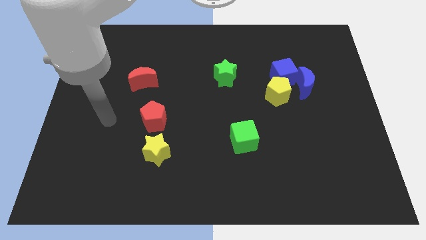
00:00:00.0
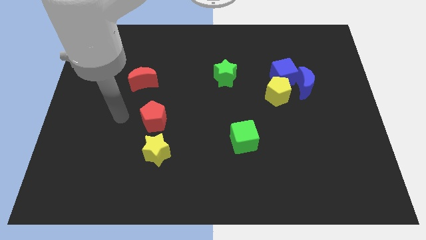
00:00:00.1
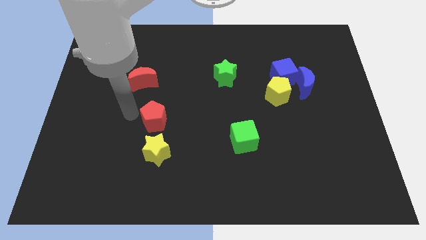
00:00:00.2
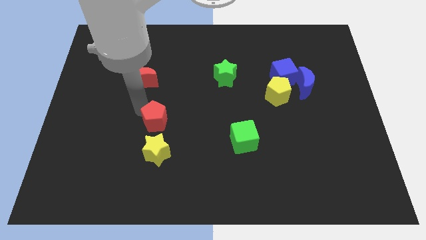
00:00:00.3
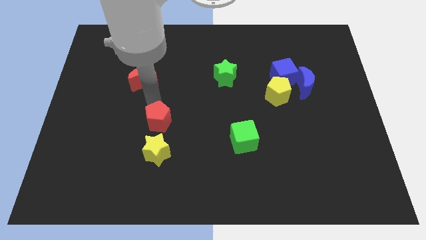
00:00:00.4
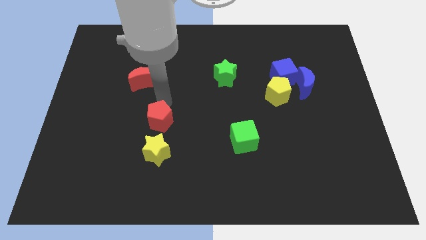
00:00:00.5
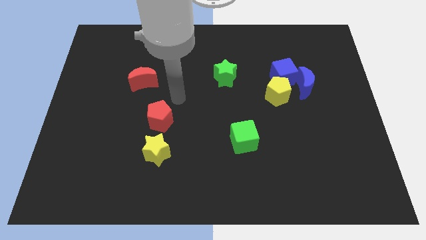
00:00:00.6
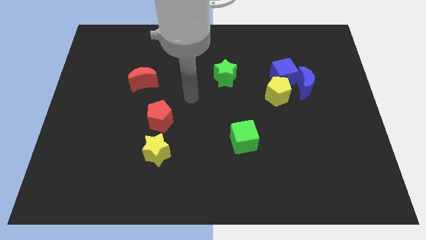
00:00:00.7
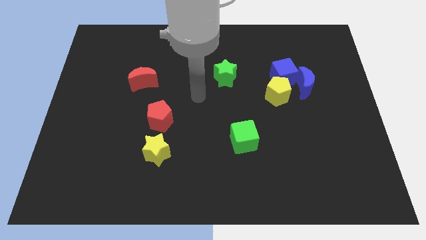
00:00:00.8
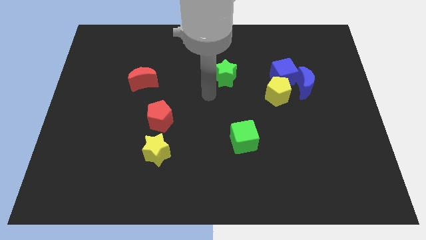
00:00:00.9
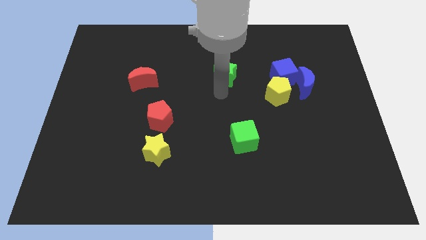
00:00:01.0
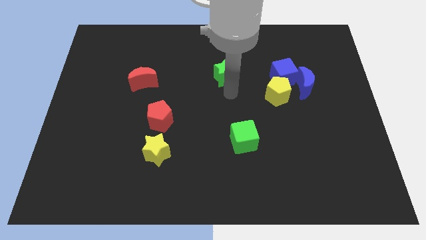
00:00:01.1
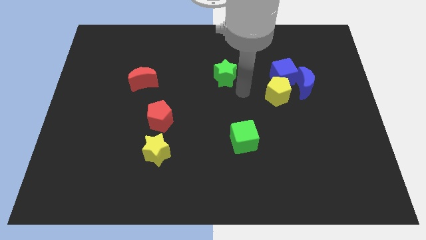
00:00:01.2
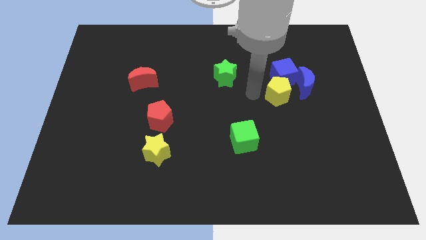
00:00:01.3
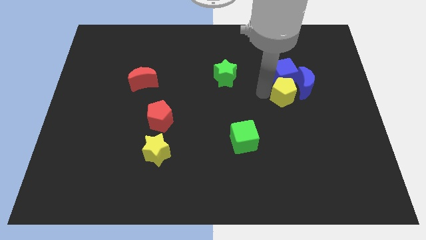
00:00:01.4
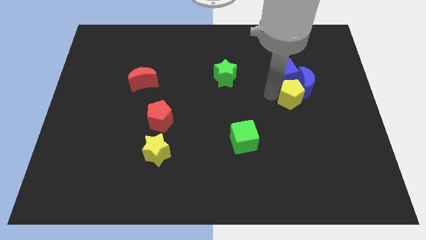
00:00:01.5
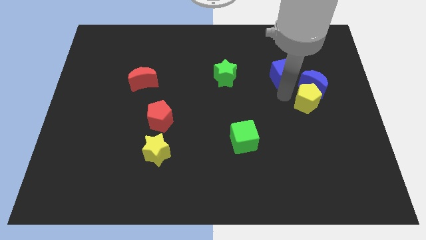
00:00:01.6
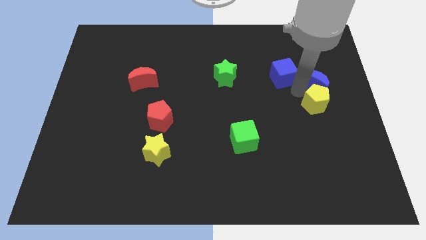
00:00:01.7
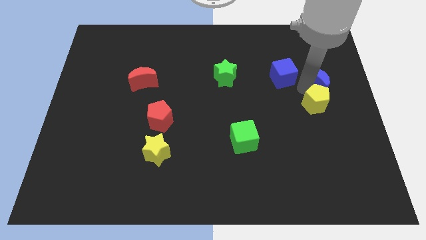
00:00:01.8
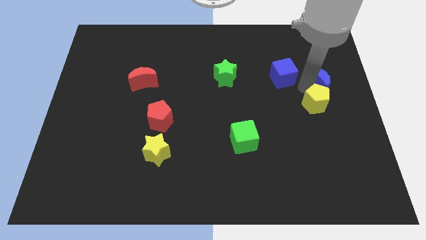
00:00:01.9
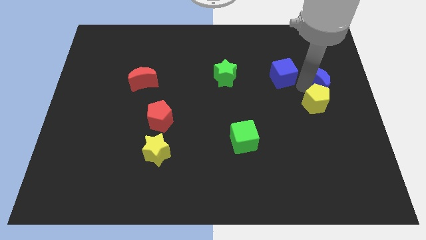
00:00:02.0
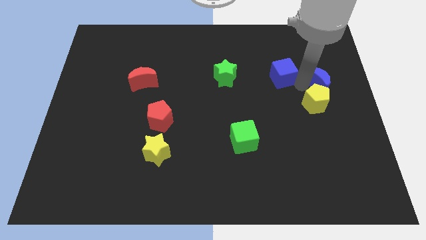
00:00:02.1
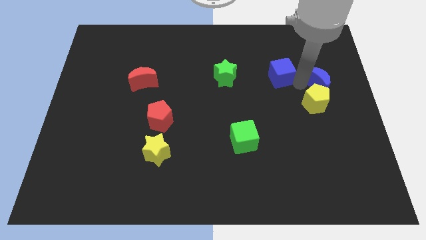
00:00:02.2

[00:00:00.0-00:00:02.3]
pull the blue cube apart from the blue moon and yellow pentagon

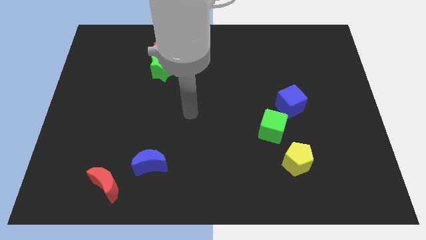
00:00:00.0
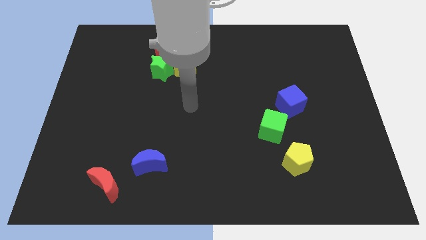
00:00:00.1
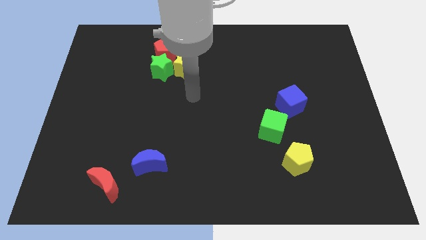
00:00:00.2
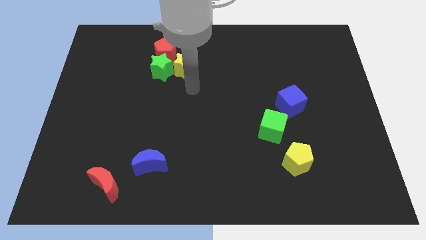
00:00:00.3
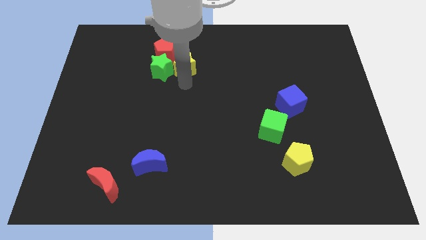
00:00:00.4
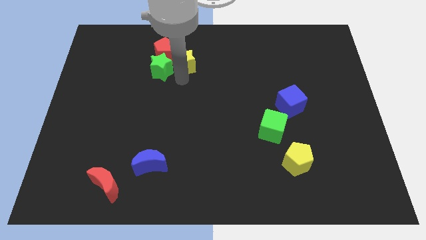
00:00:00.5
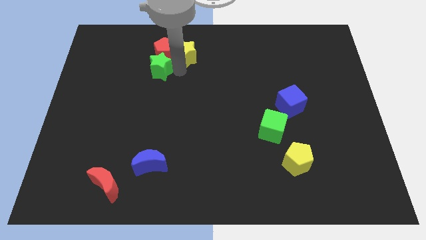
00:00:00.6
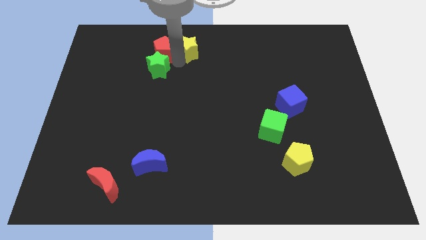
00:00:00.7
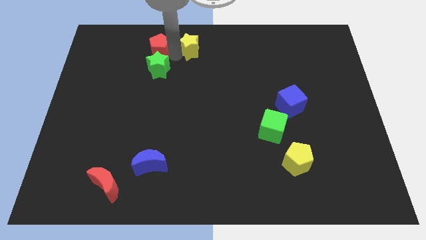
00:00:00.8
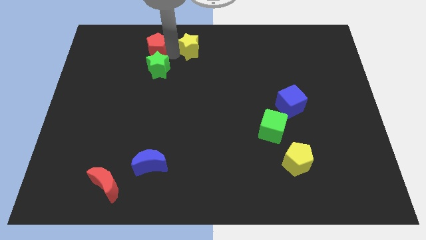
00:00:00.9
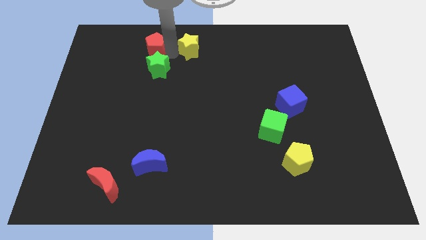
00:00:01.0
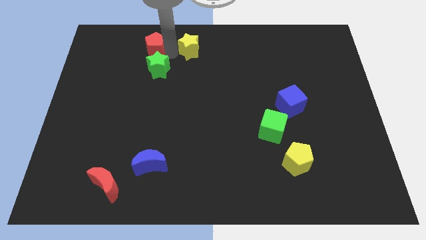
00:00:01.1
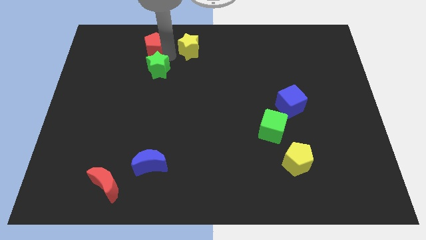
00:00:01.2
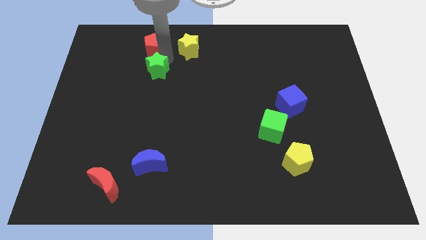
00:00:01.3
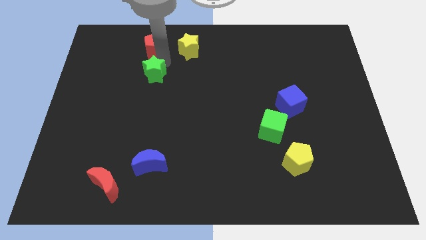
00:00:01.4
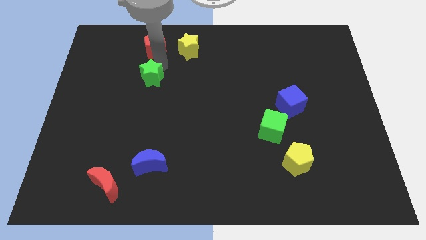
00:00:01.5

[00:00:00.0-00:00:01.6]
separate the green star from the red pentagon and yellow star

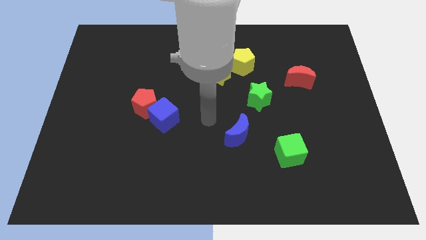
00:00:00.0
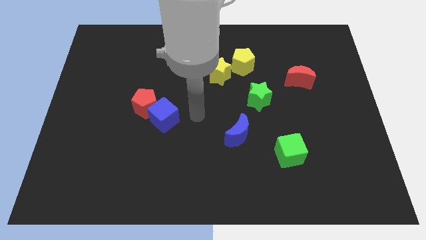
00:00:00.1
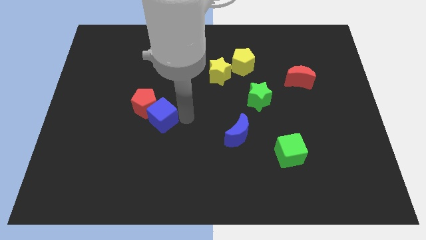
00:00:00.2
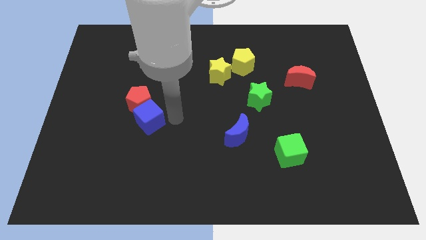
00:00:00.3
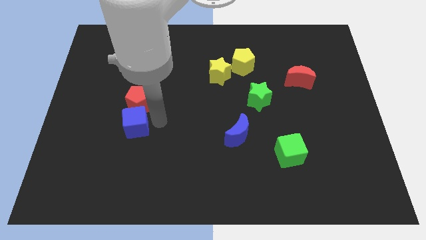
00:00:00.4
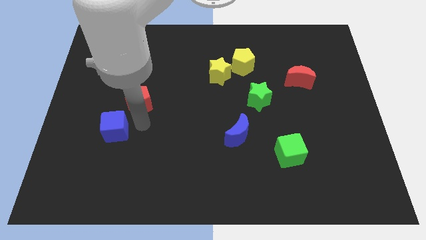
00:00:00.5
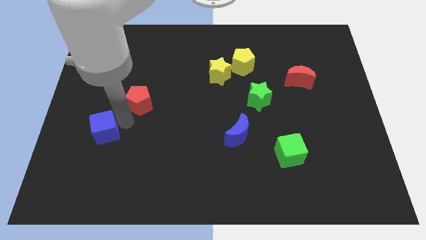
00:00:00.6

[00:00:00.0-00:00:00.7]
move the red pentagon away from the blue cube

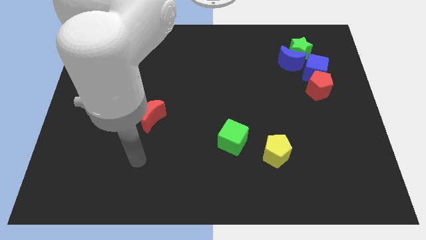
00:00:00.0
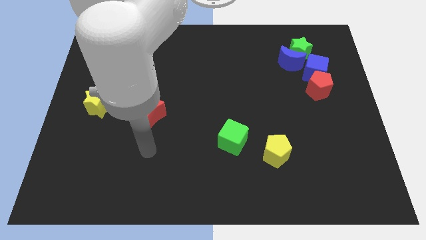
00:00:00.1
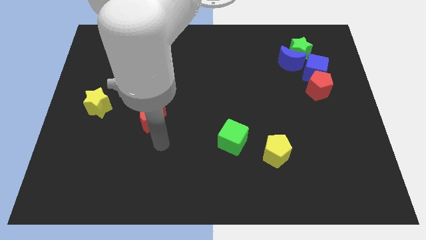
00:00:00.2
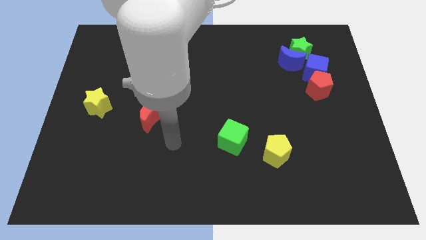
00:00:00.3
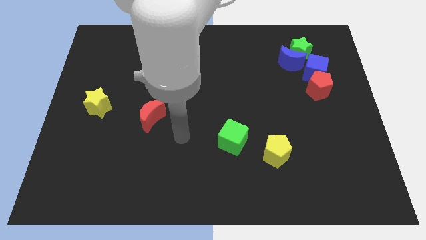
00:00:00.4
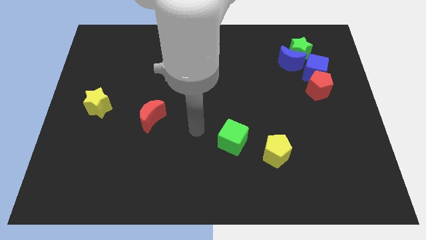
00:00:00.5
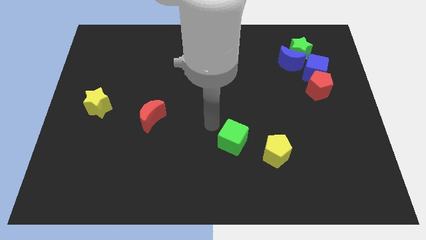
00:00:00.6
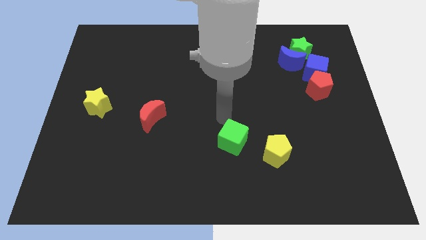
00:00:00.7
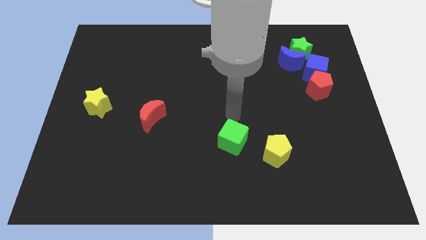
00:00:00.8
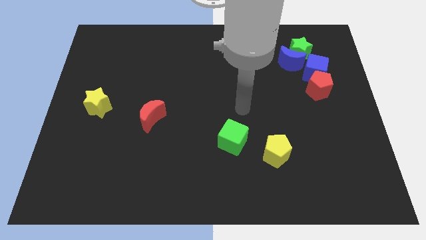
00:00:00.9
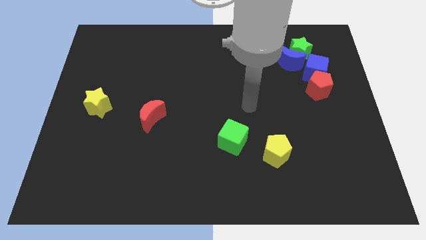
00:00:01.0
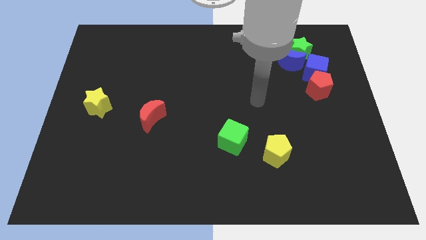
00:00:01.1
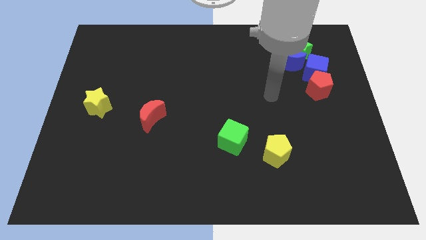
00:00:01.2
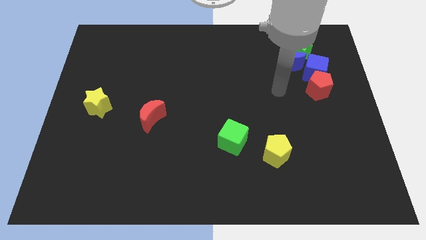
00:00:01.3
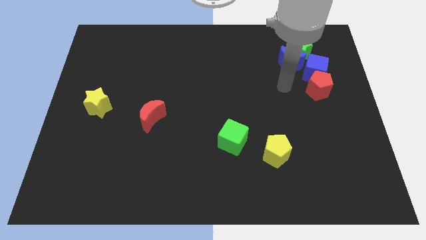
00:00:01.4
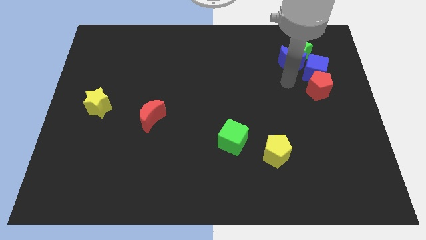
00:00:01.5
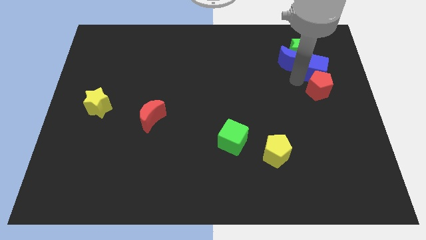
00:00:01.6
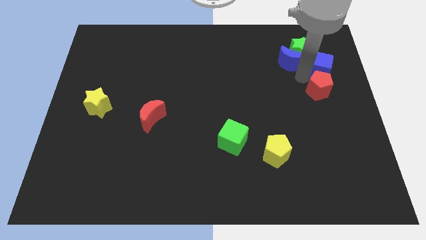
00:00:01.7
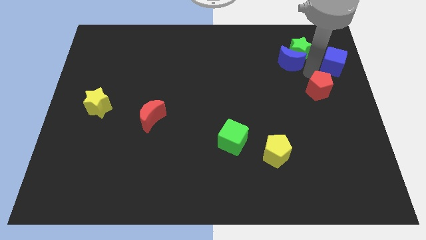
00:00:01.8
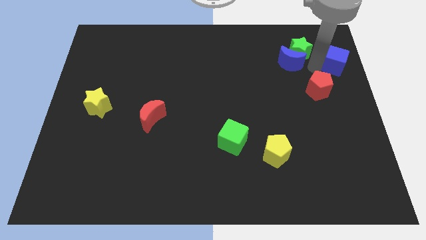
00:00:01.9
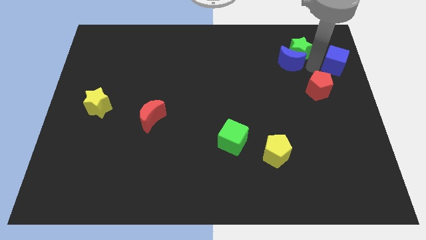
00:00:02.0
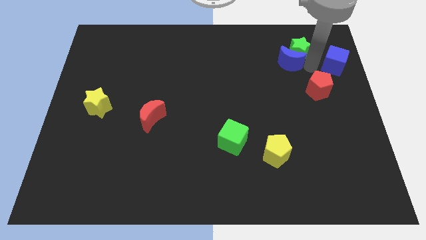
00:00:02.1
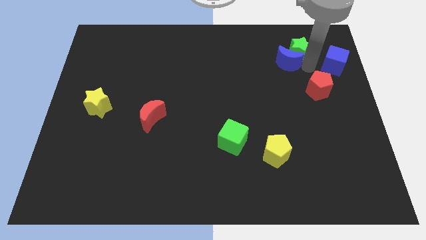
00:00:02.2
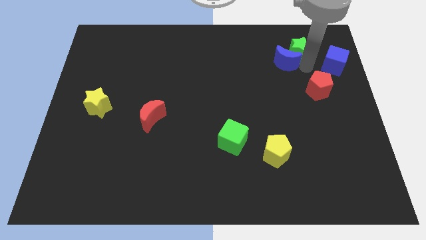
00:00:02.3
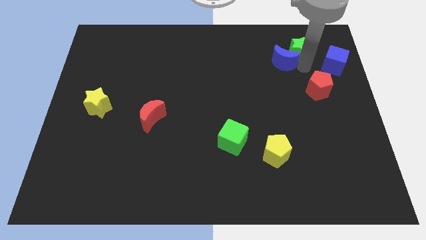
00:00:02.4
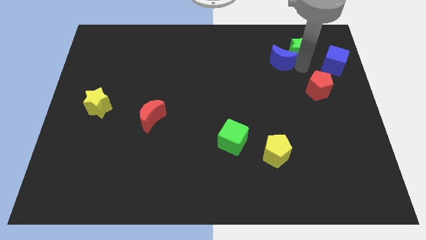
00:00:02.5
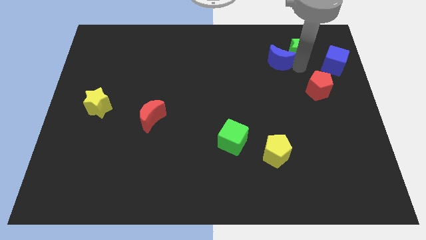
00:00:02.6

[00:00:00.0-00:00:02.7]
separate the blue moon from the green star and blue cube

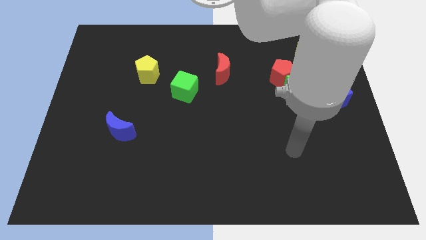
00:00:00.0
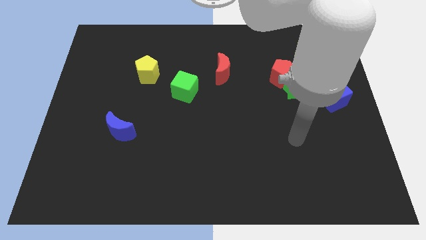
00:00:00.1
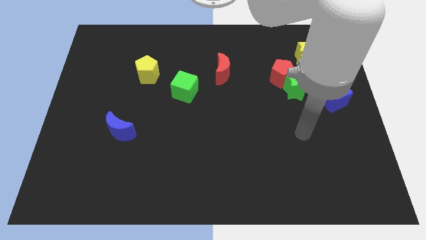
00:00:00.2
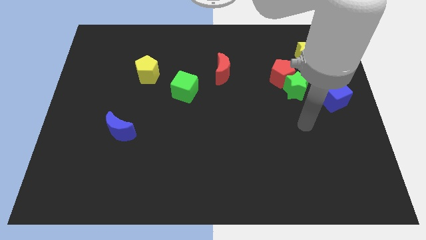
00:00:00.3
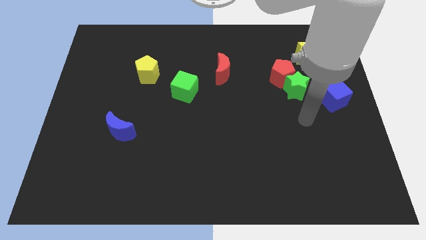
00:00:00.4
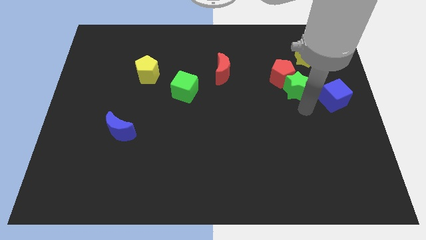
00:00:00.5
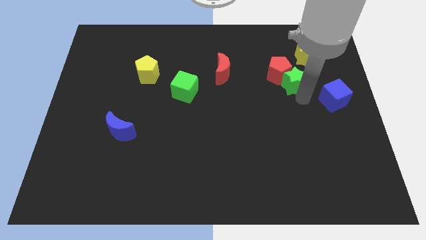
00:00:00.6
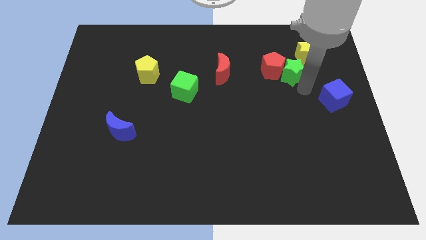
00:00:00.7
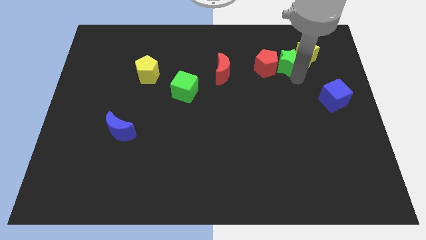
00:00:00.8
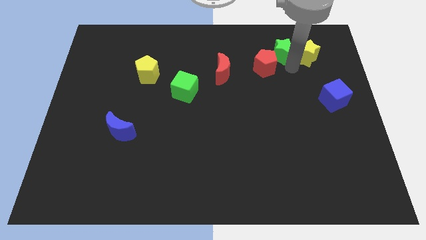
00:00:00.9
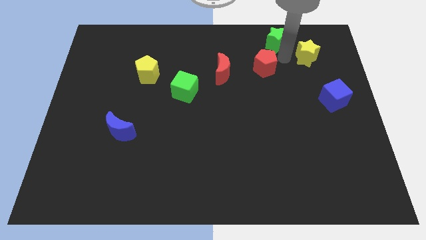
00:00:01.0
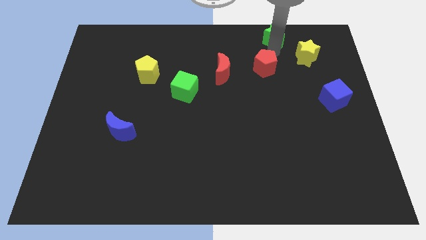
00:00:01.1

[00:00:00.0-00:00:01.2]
separate the red pentagon from the green star

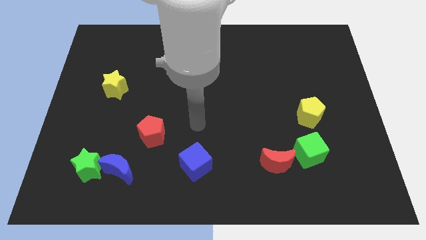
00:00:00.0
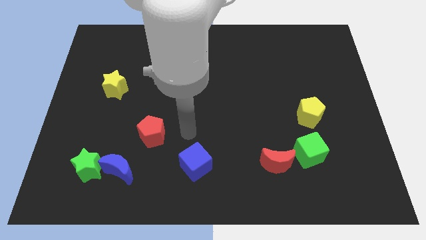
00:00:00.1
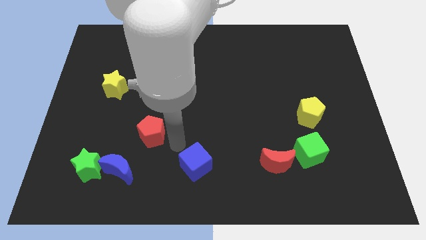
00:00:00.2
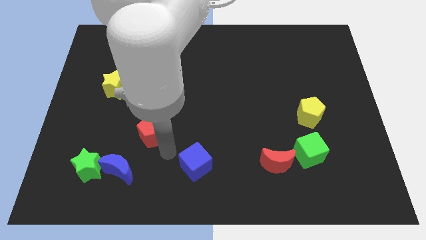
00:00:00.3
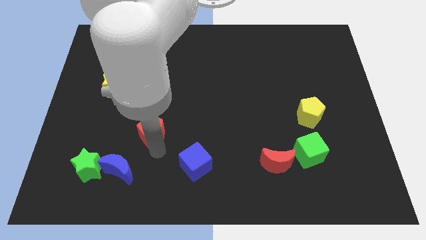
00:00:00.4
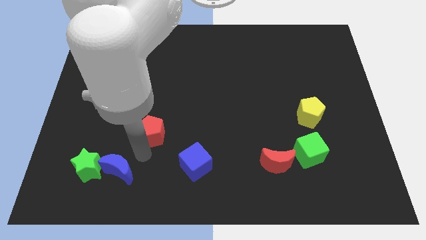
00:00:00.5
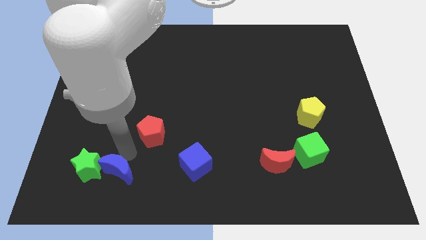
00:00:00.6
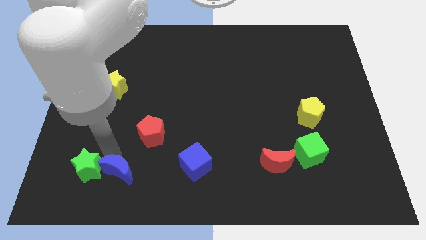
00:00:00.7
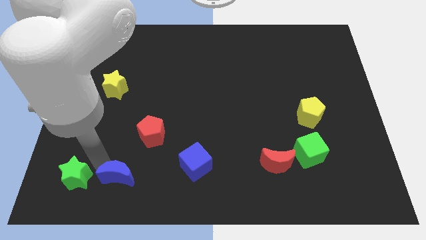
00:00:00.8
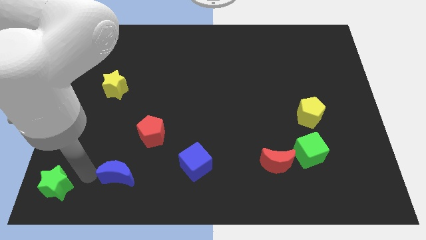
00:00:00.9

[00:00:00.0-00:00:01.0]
separate the blue moon from the green star
